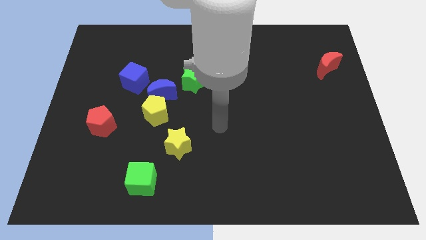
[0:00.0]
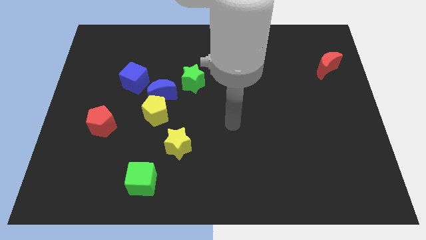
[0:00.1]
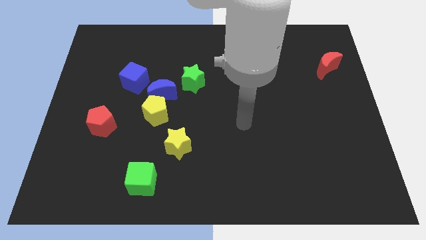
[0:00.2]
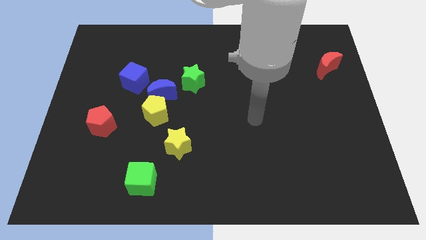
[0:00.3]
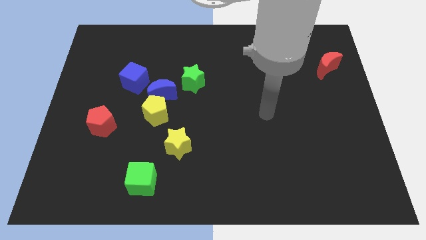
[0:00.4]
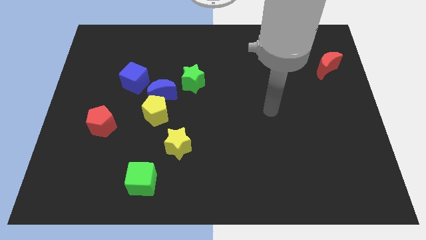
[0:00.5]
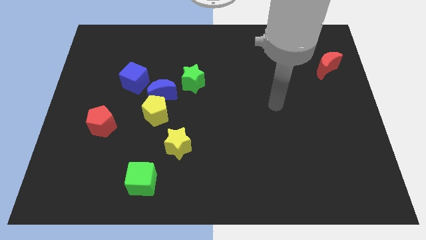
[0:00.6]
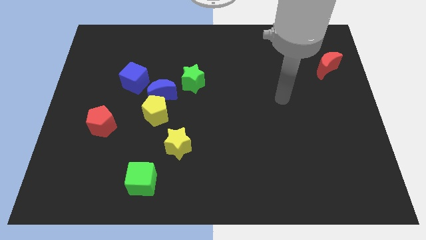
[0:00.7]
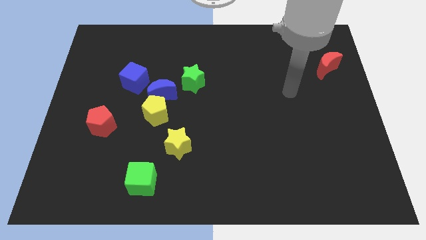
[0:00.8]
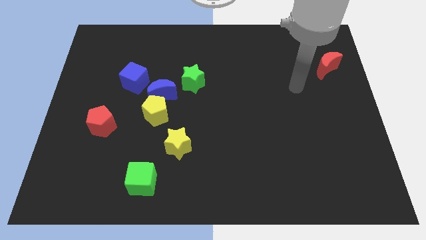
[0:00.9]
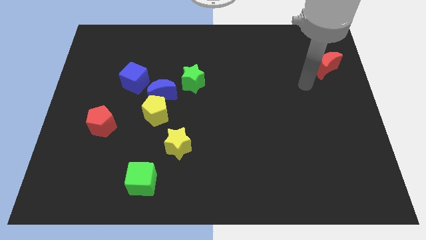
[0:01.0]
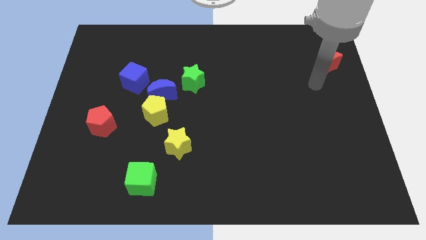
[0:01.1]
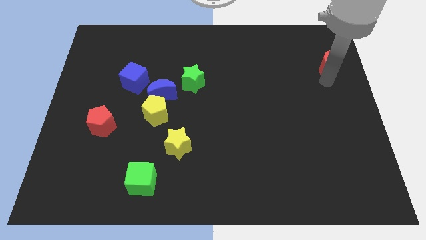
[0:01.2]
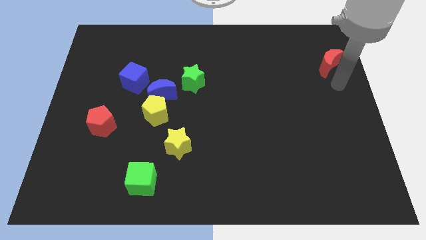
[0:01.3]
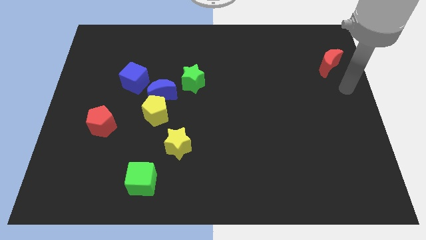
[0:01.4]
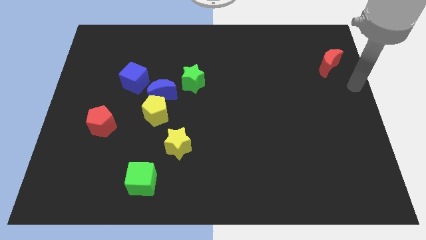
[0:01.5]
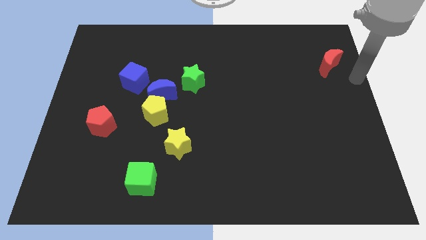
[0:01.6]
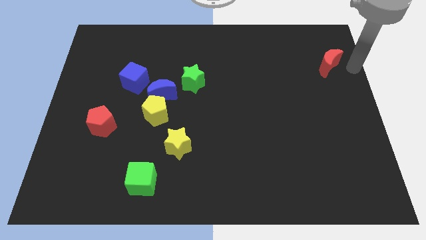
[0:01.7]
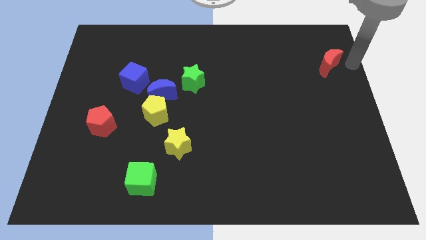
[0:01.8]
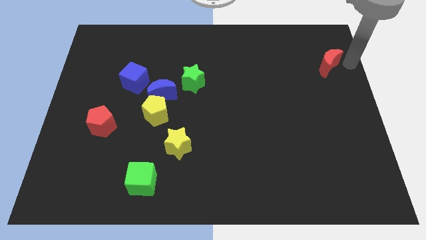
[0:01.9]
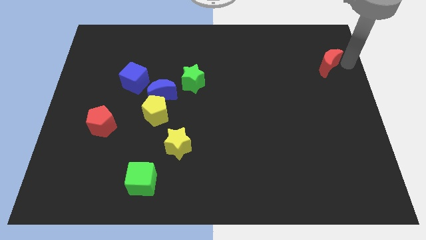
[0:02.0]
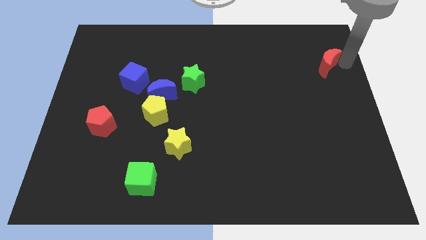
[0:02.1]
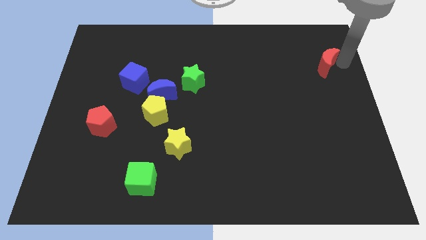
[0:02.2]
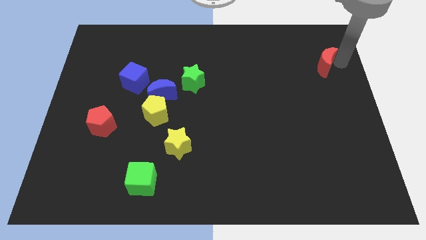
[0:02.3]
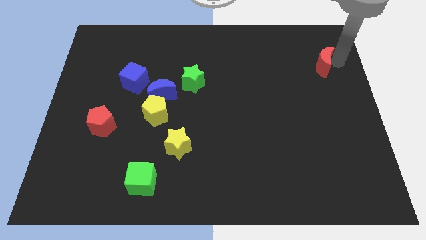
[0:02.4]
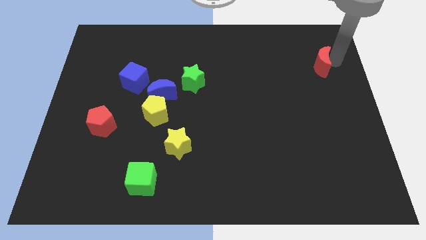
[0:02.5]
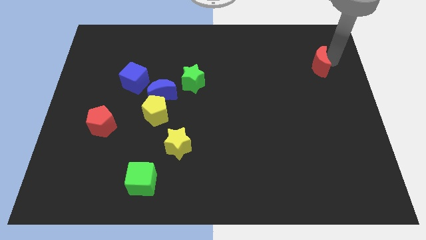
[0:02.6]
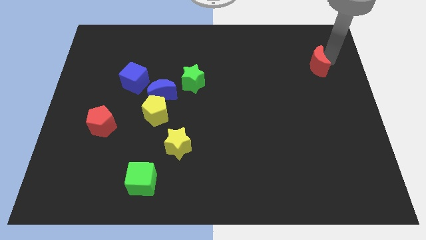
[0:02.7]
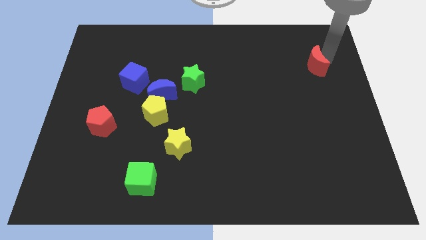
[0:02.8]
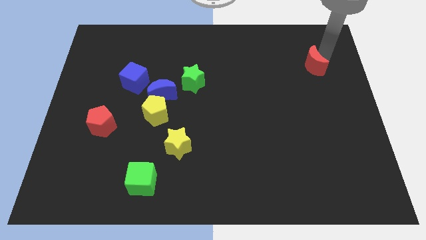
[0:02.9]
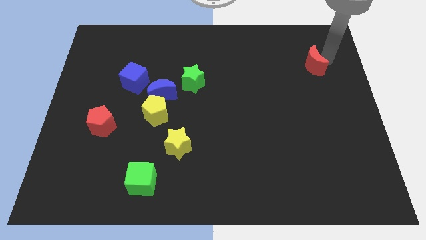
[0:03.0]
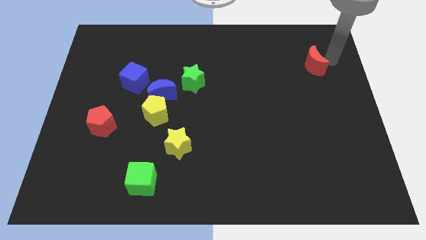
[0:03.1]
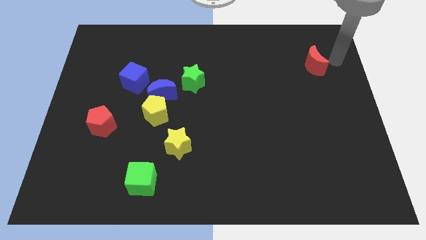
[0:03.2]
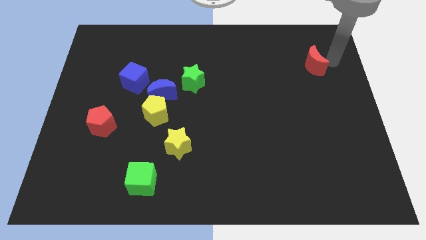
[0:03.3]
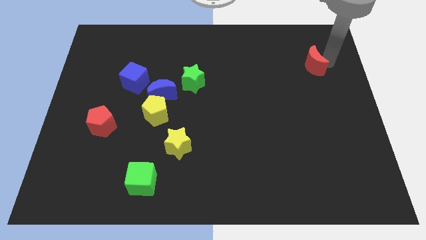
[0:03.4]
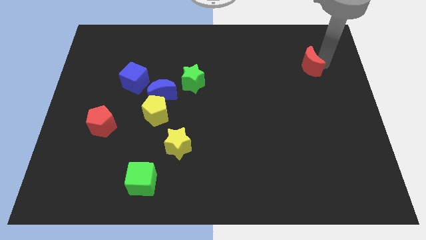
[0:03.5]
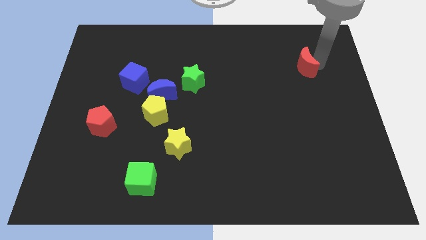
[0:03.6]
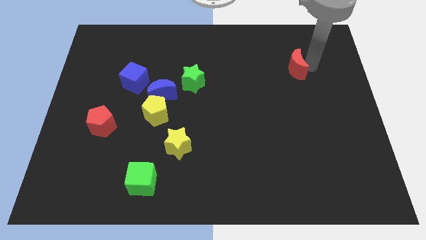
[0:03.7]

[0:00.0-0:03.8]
slide the red moon slightly left

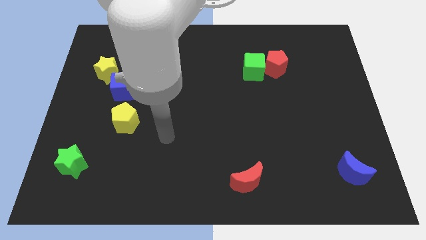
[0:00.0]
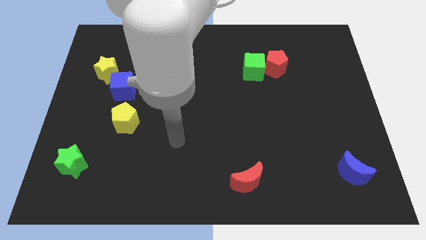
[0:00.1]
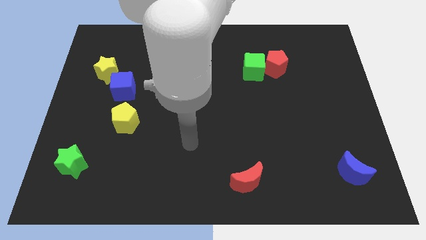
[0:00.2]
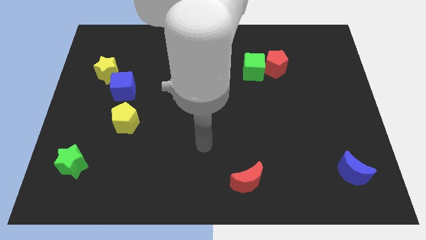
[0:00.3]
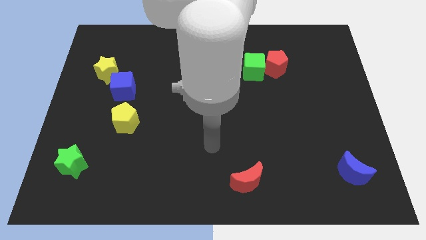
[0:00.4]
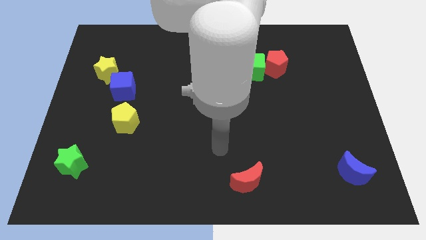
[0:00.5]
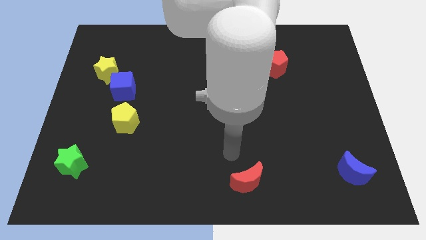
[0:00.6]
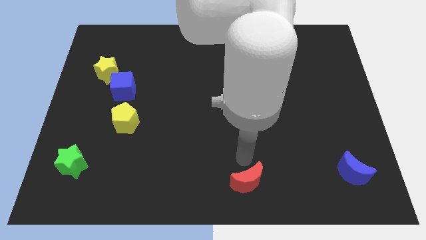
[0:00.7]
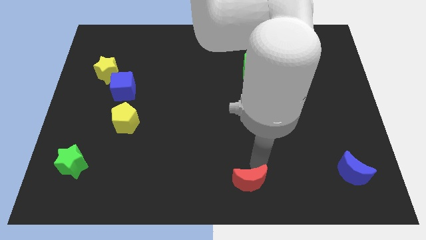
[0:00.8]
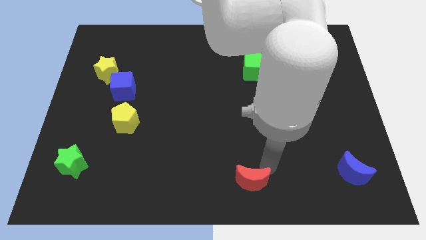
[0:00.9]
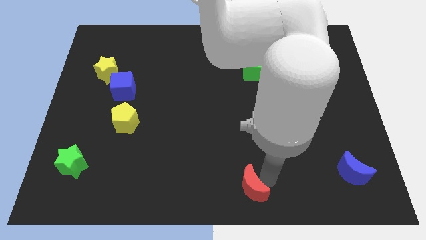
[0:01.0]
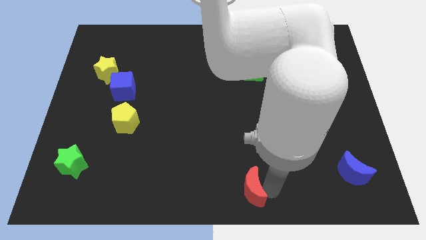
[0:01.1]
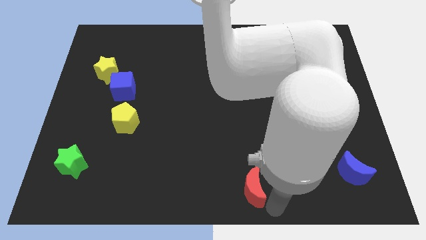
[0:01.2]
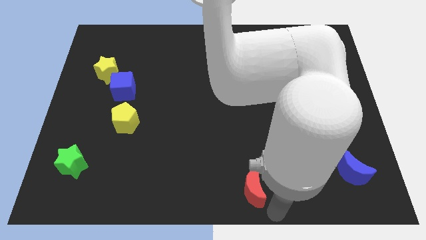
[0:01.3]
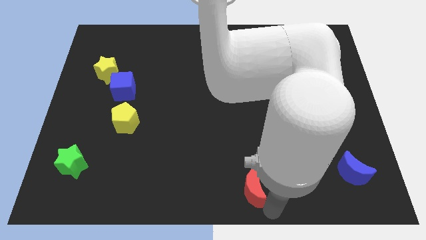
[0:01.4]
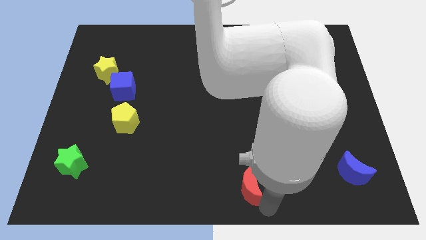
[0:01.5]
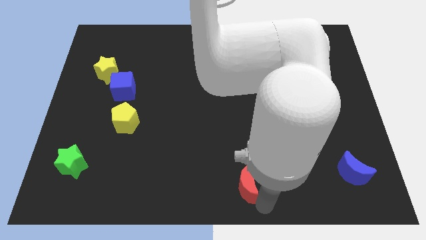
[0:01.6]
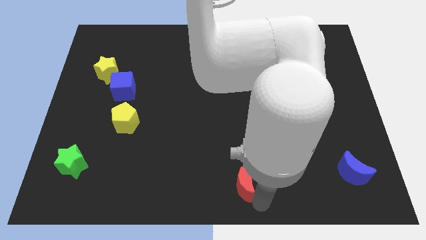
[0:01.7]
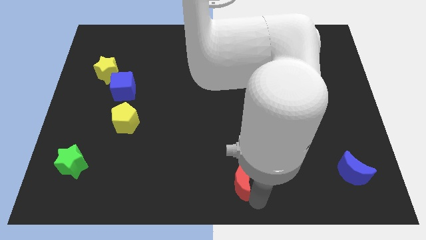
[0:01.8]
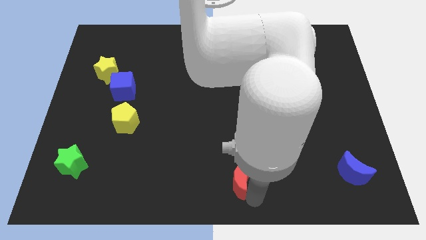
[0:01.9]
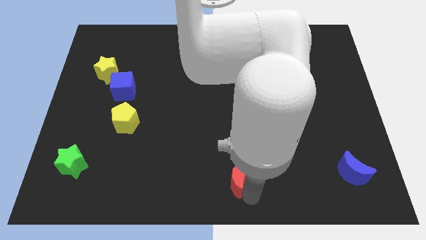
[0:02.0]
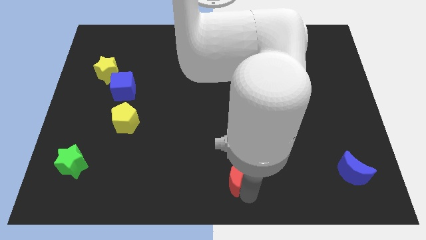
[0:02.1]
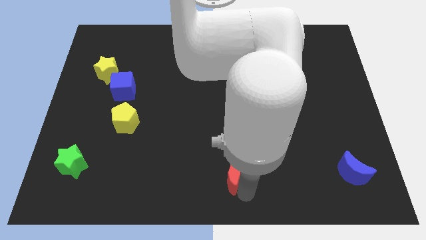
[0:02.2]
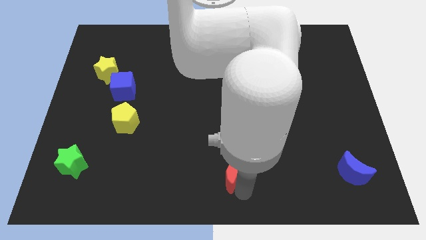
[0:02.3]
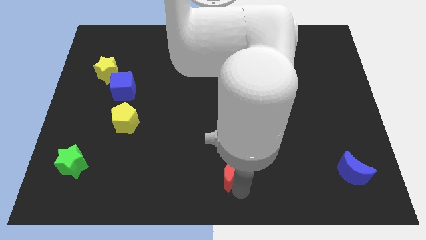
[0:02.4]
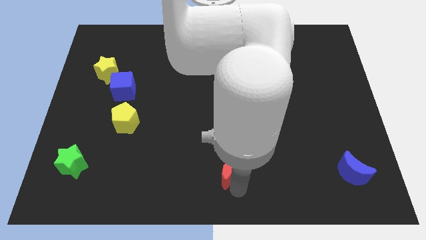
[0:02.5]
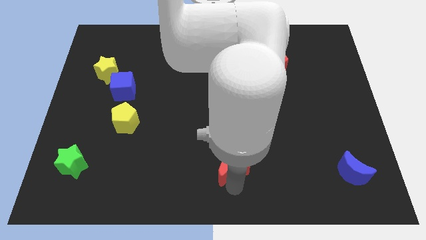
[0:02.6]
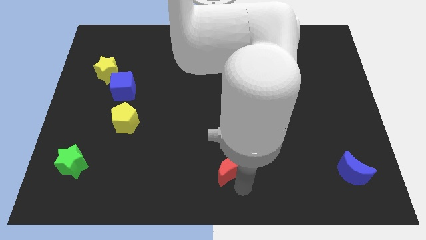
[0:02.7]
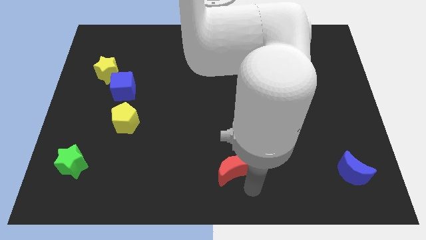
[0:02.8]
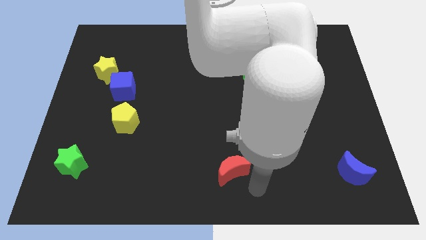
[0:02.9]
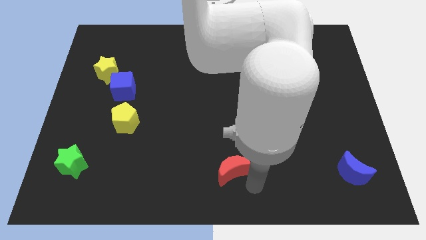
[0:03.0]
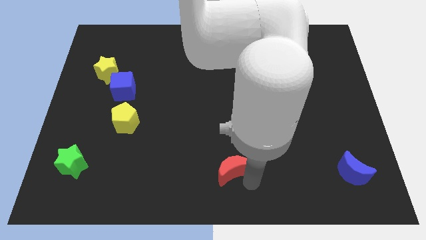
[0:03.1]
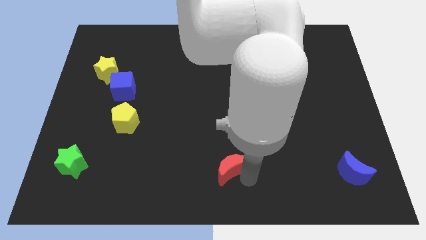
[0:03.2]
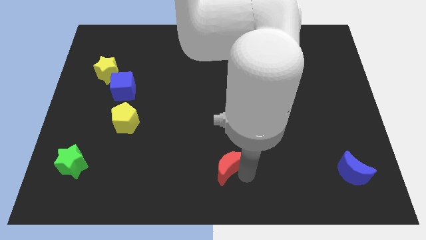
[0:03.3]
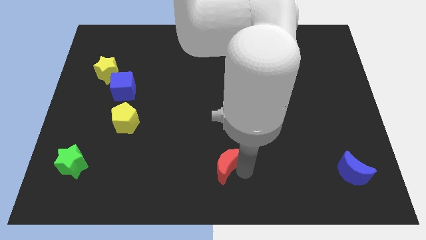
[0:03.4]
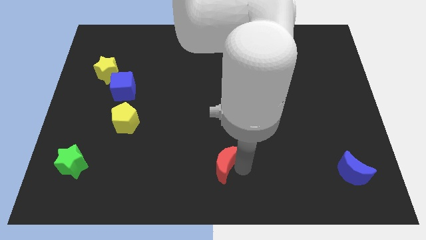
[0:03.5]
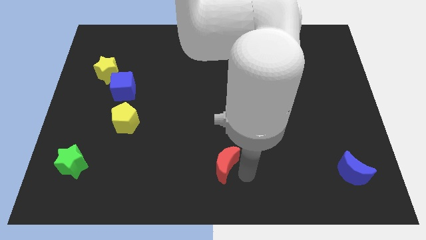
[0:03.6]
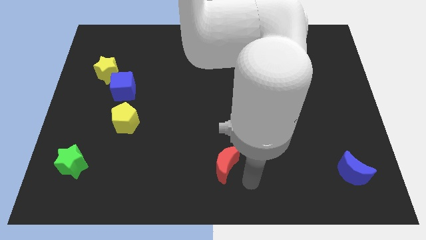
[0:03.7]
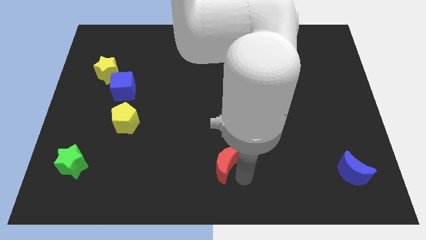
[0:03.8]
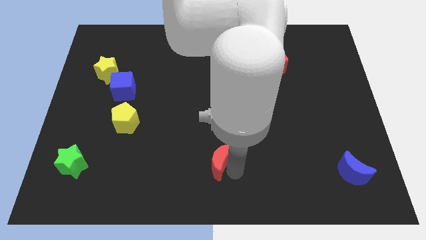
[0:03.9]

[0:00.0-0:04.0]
push the red moon up and then left slightly
